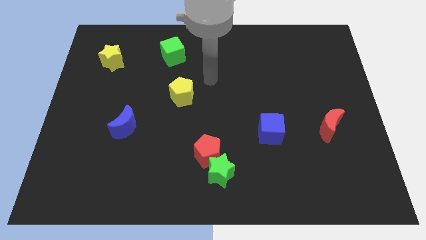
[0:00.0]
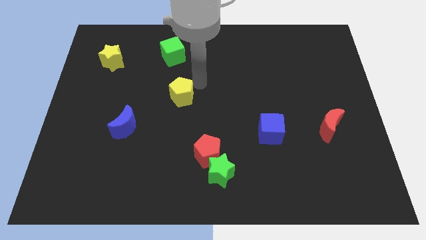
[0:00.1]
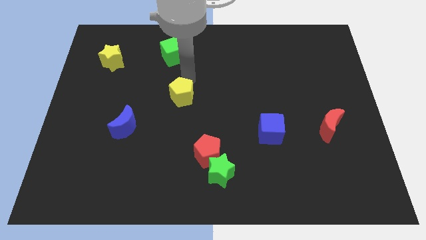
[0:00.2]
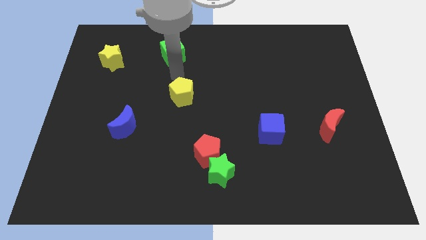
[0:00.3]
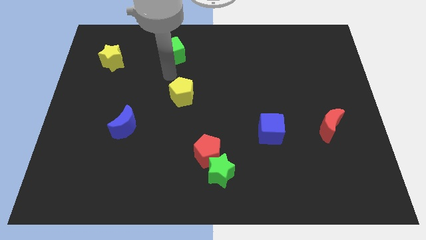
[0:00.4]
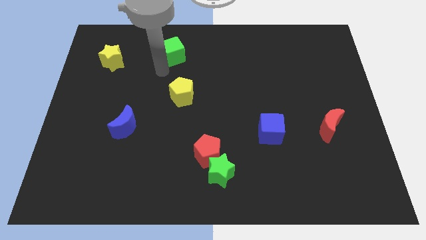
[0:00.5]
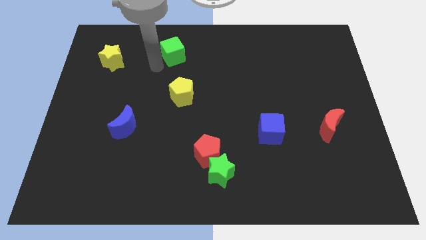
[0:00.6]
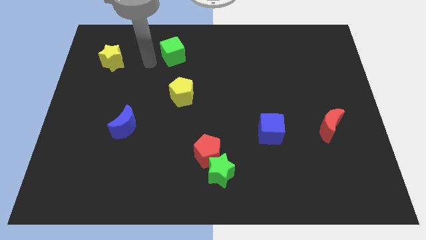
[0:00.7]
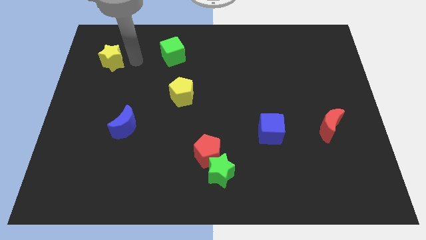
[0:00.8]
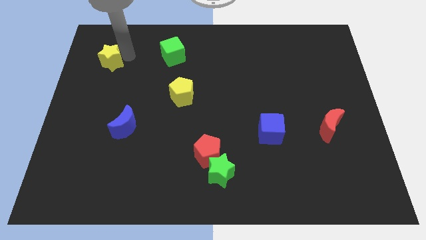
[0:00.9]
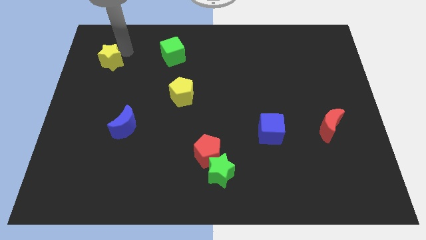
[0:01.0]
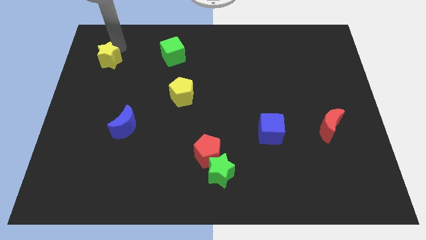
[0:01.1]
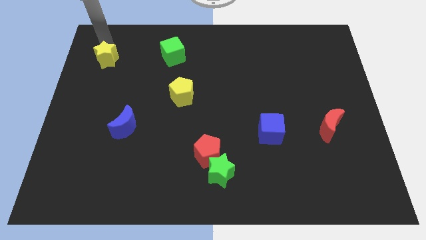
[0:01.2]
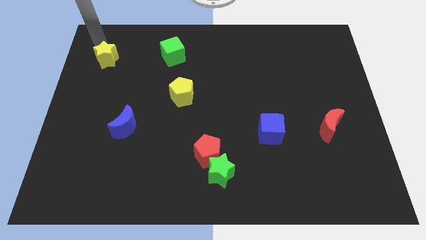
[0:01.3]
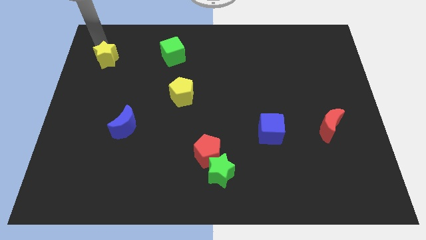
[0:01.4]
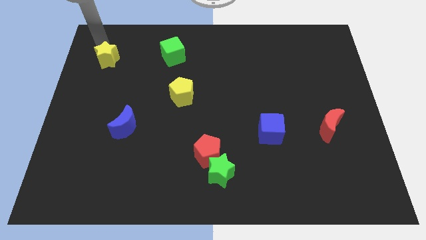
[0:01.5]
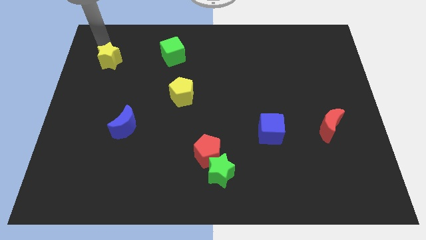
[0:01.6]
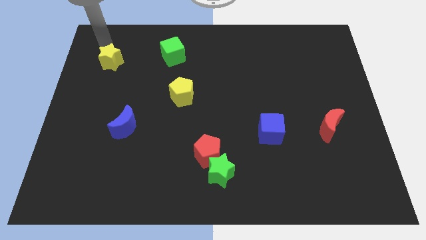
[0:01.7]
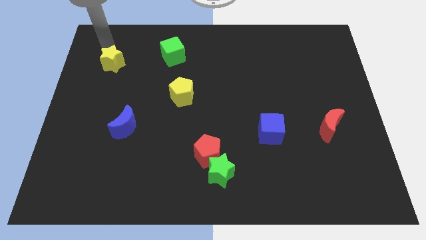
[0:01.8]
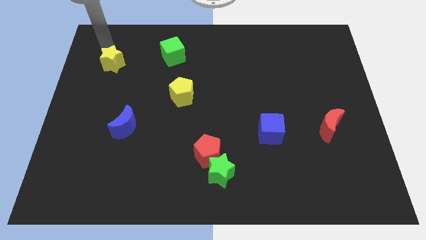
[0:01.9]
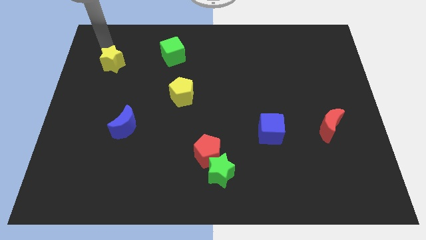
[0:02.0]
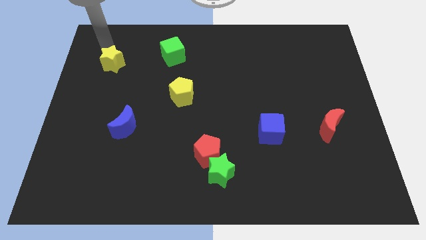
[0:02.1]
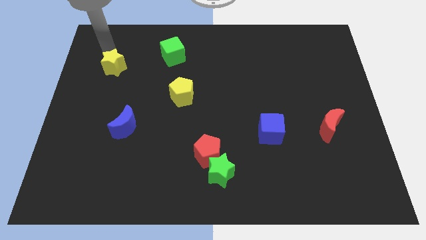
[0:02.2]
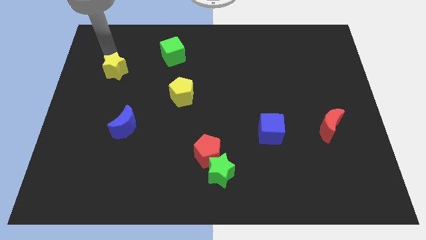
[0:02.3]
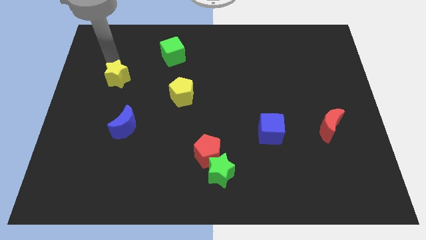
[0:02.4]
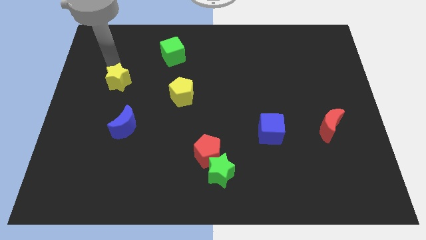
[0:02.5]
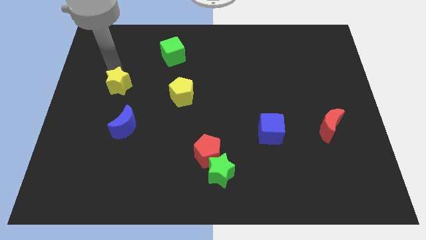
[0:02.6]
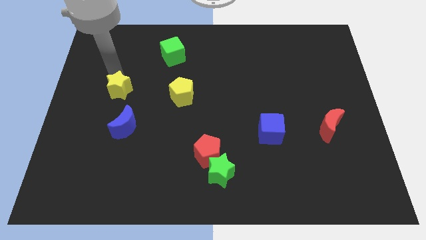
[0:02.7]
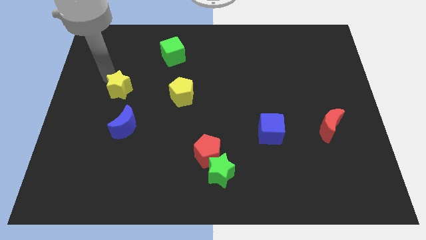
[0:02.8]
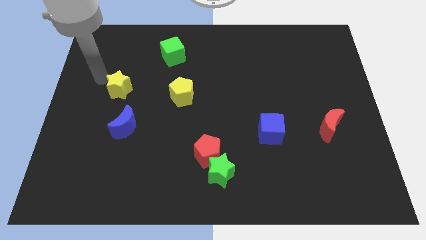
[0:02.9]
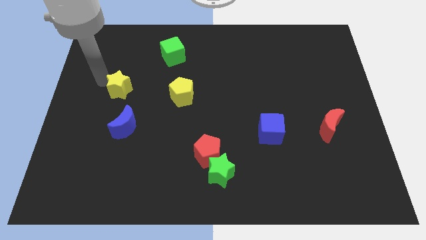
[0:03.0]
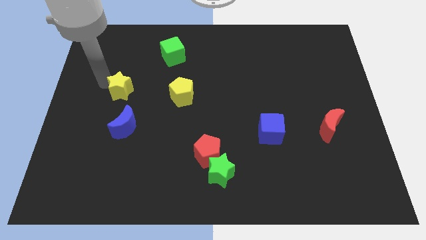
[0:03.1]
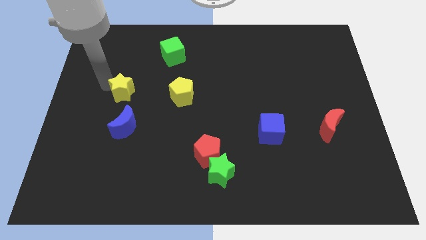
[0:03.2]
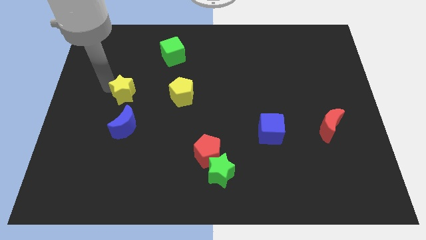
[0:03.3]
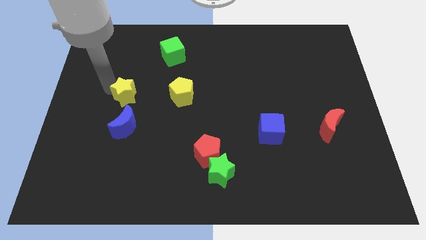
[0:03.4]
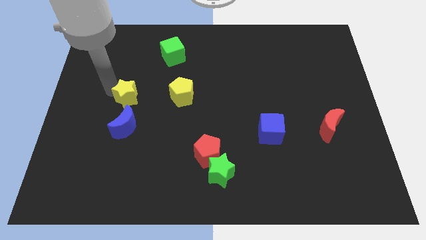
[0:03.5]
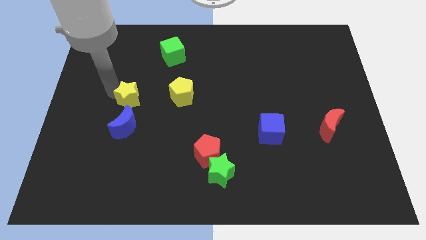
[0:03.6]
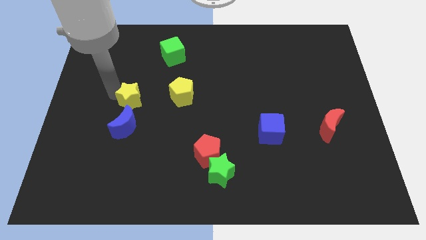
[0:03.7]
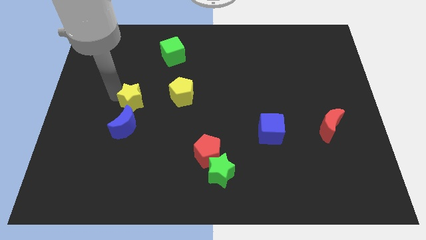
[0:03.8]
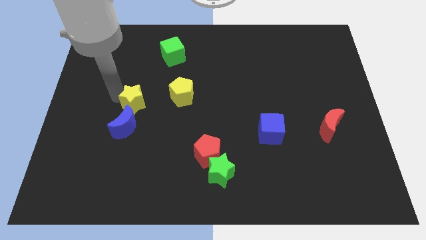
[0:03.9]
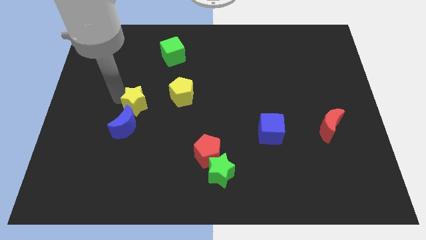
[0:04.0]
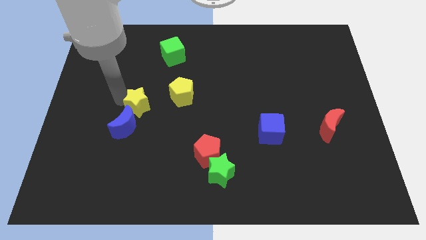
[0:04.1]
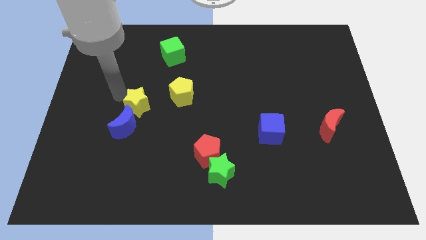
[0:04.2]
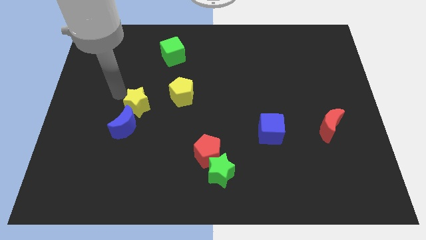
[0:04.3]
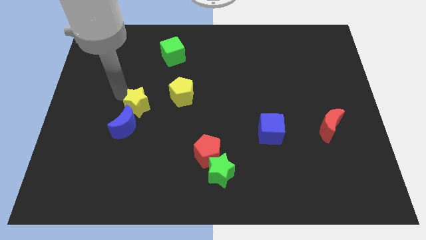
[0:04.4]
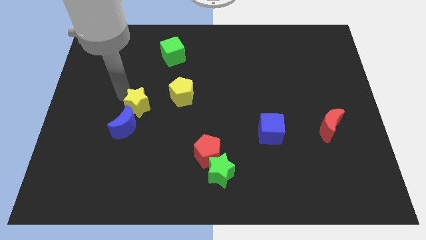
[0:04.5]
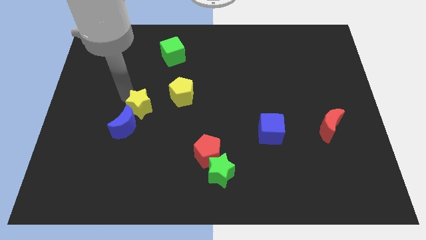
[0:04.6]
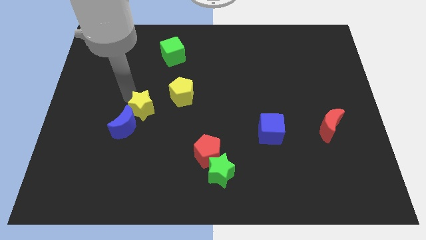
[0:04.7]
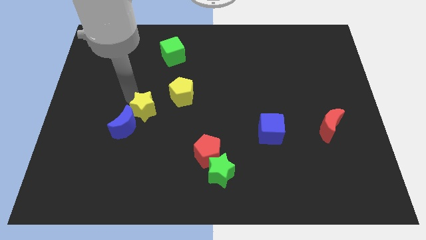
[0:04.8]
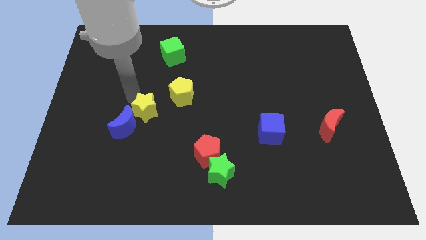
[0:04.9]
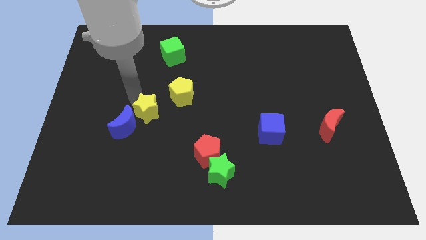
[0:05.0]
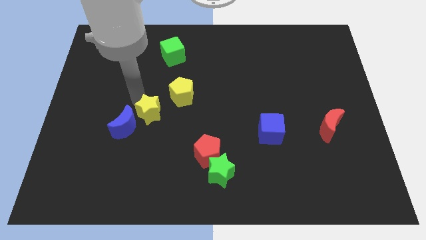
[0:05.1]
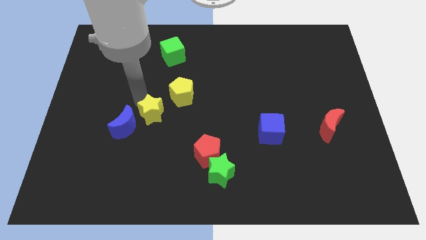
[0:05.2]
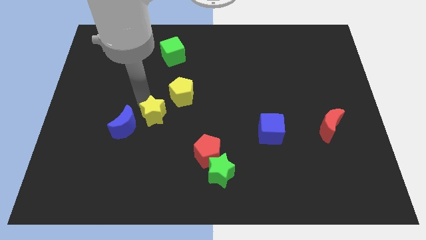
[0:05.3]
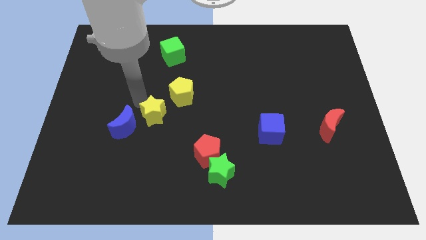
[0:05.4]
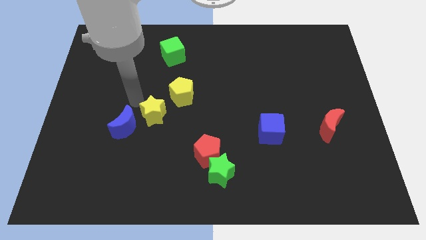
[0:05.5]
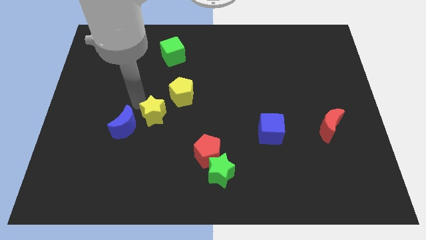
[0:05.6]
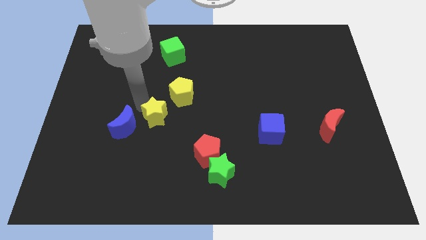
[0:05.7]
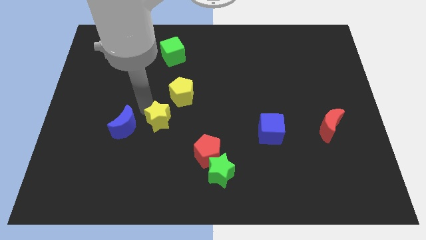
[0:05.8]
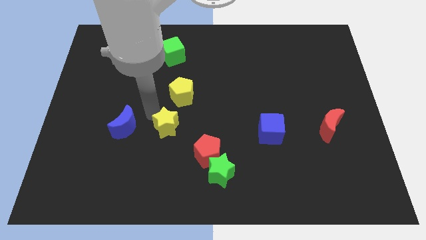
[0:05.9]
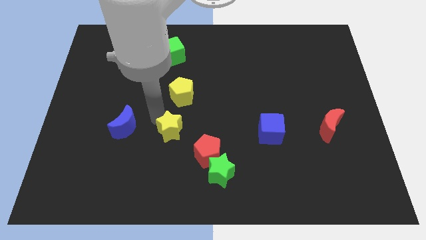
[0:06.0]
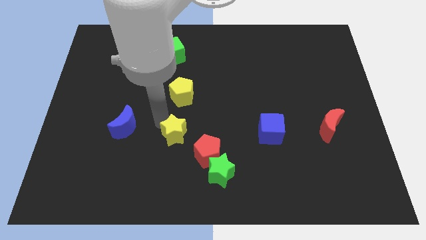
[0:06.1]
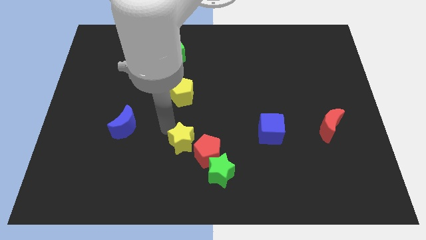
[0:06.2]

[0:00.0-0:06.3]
slide the yellow star close to the red pentagon

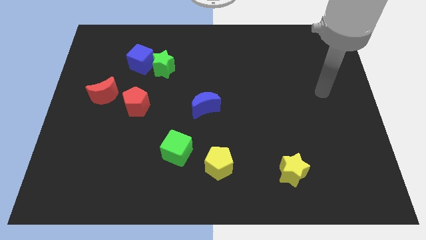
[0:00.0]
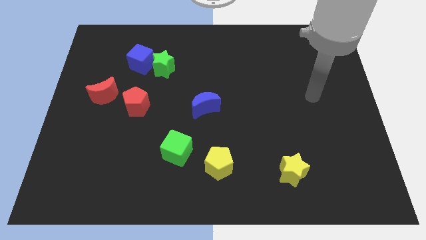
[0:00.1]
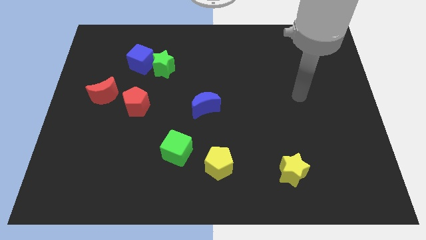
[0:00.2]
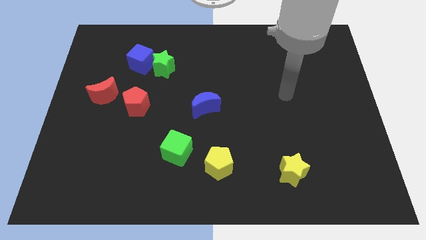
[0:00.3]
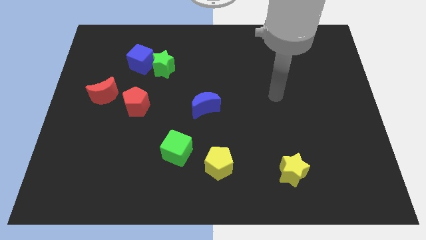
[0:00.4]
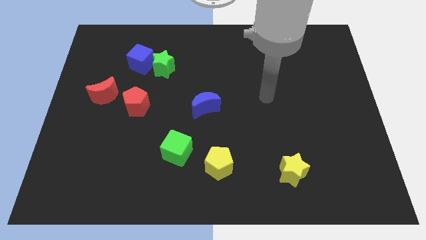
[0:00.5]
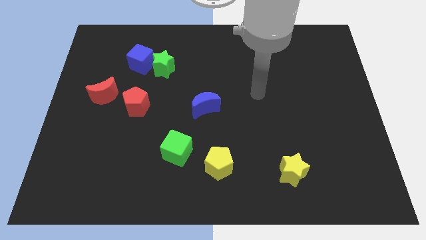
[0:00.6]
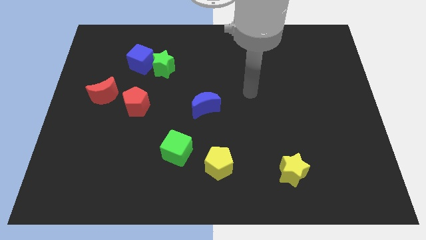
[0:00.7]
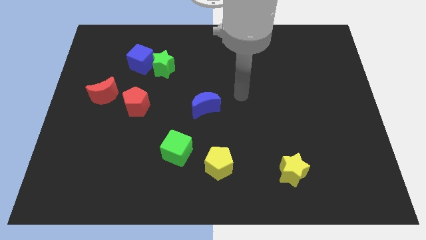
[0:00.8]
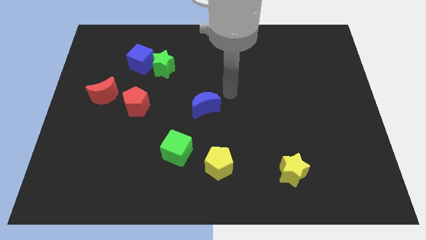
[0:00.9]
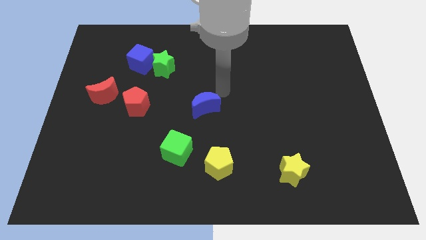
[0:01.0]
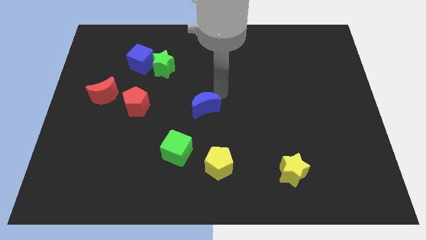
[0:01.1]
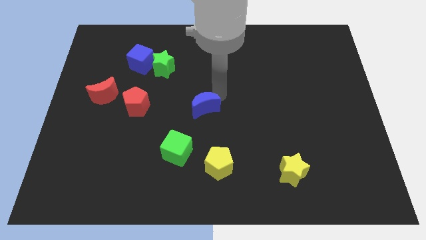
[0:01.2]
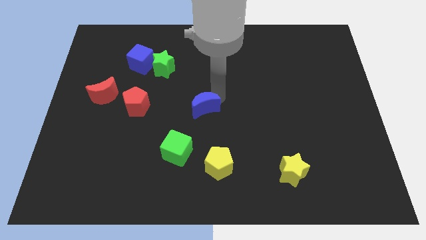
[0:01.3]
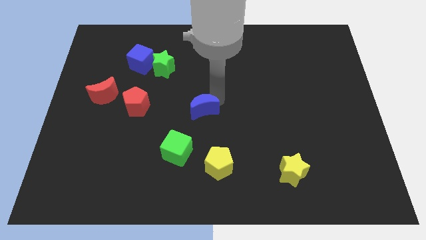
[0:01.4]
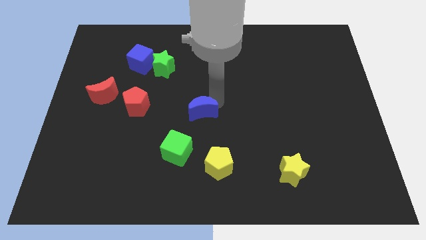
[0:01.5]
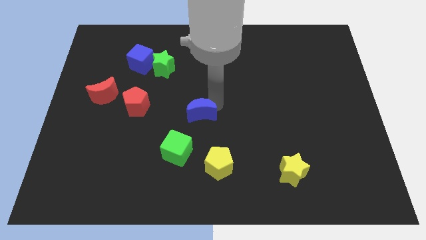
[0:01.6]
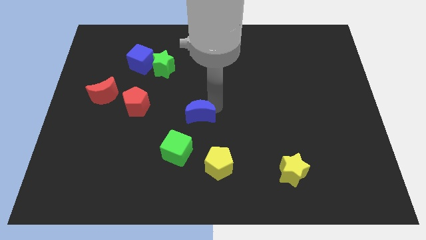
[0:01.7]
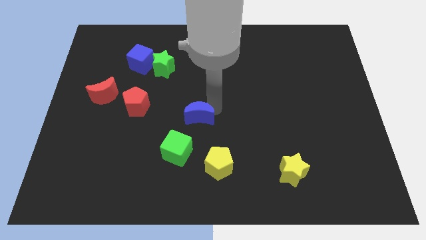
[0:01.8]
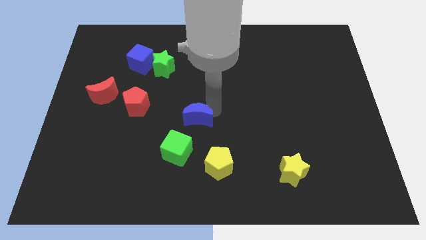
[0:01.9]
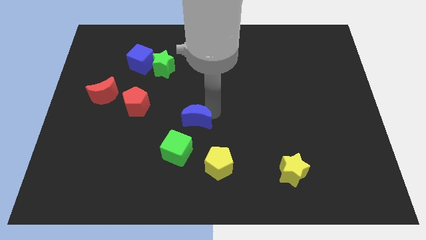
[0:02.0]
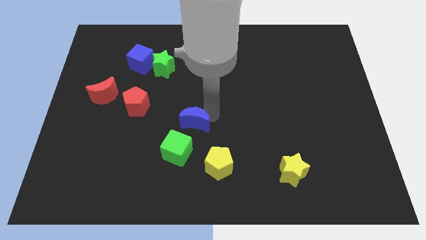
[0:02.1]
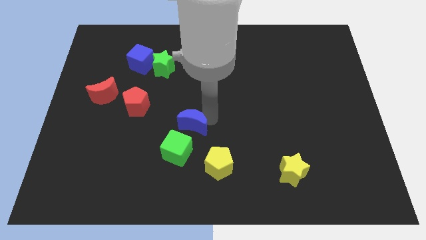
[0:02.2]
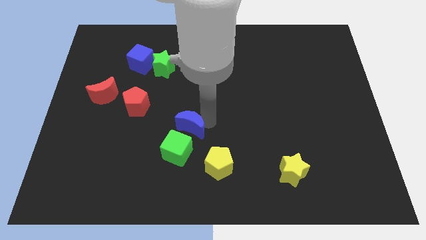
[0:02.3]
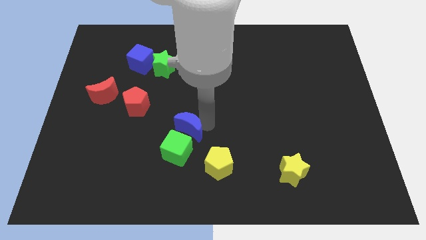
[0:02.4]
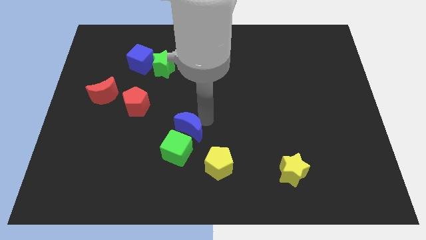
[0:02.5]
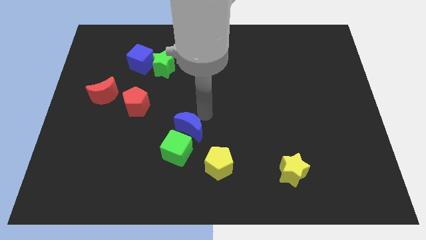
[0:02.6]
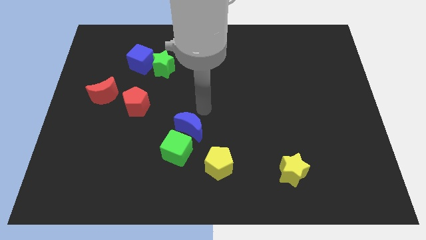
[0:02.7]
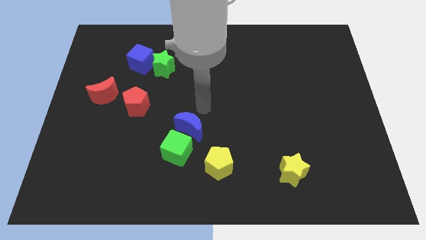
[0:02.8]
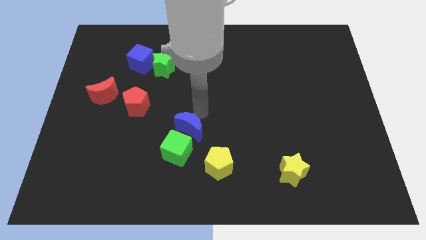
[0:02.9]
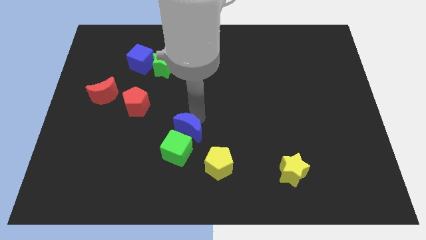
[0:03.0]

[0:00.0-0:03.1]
move the blue moon to the green cube
